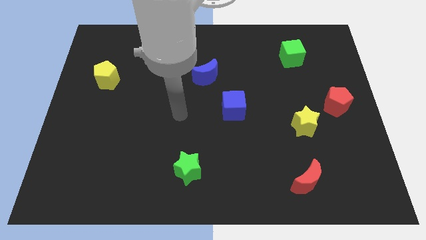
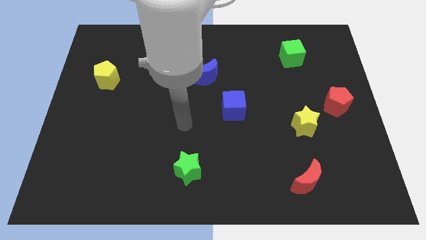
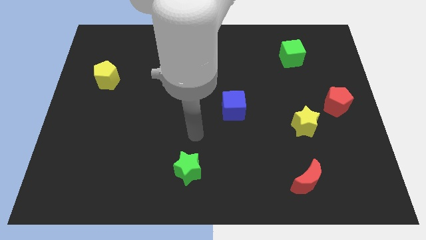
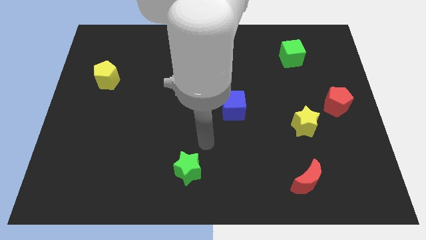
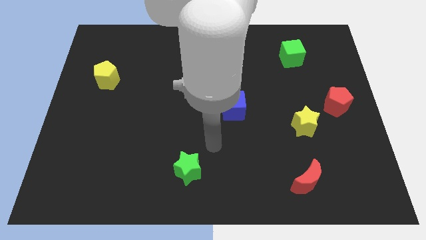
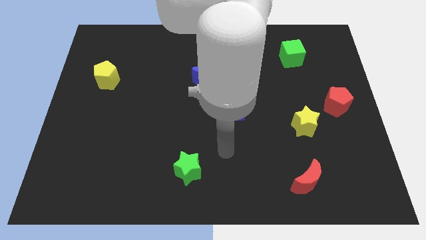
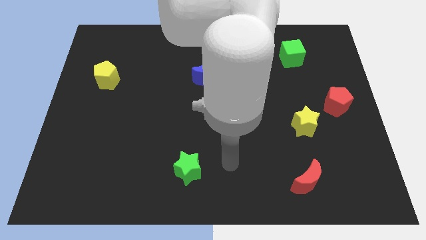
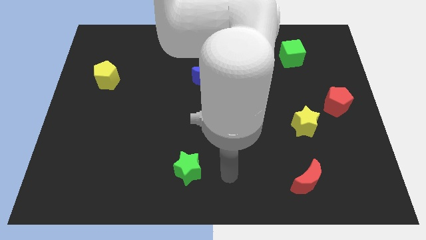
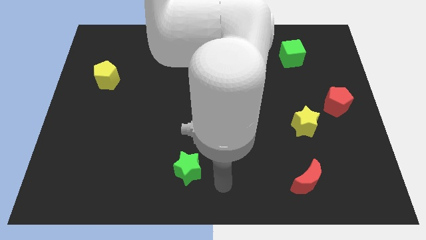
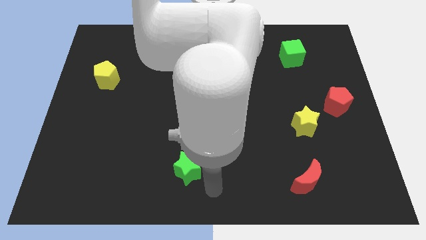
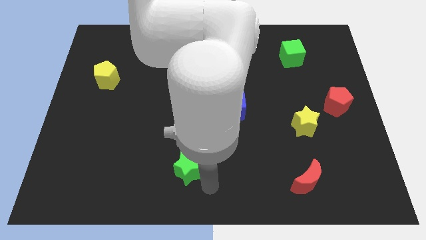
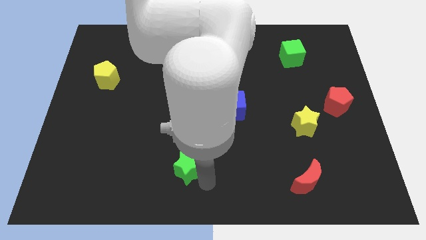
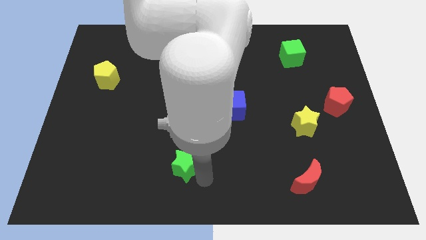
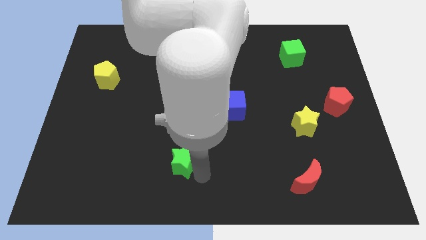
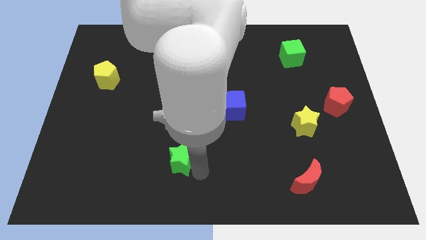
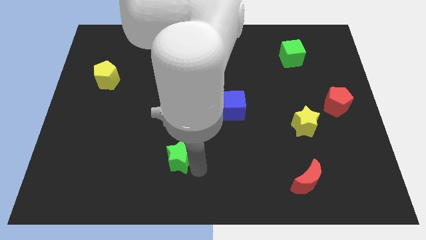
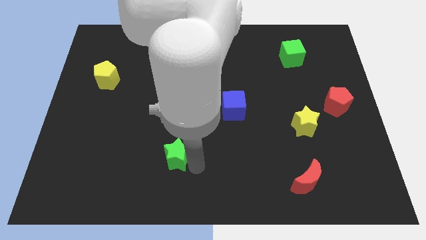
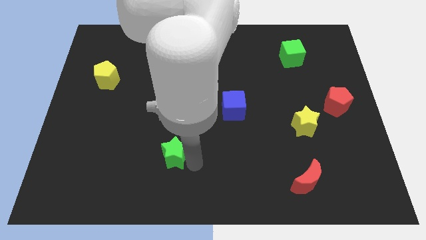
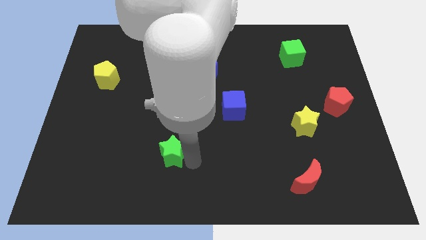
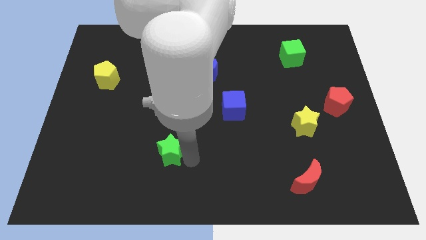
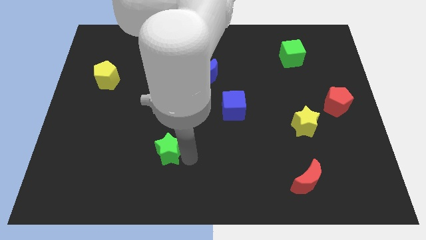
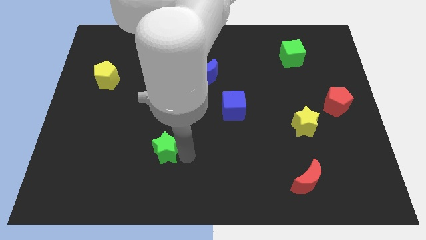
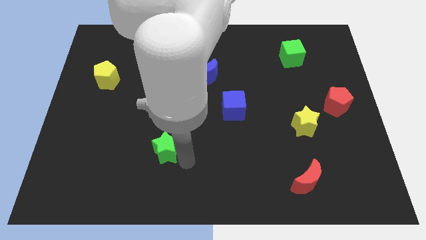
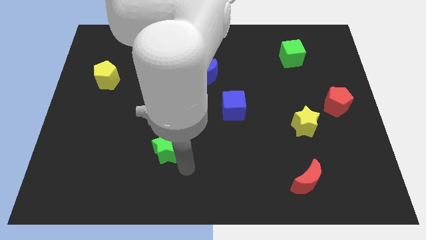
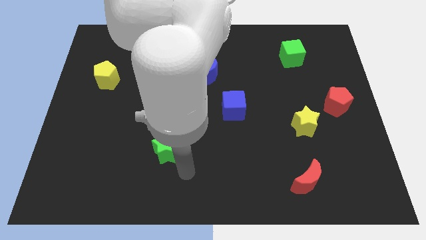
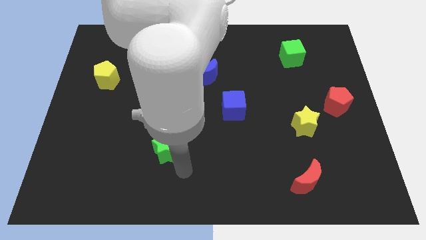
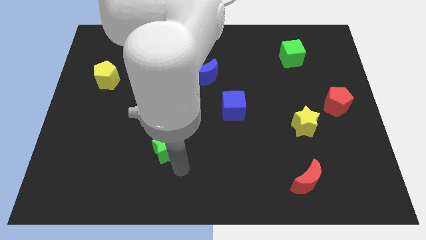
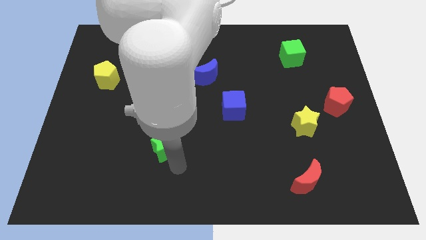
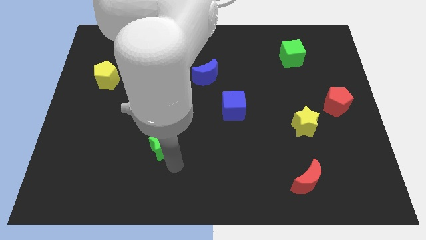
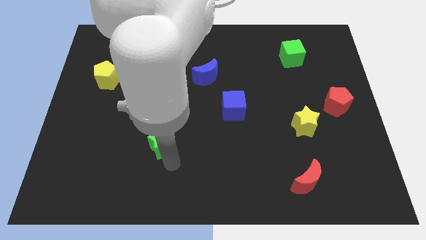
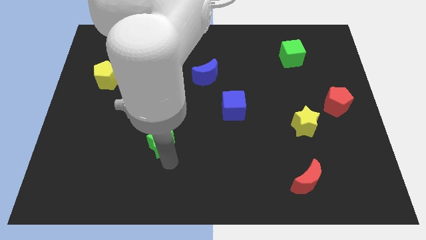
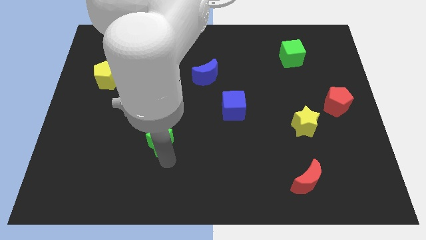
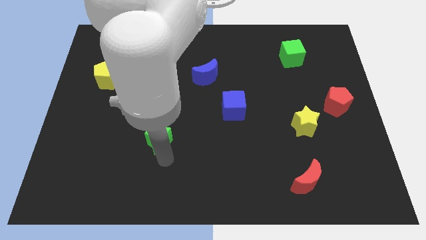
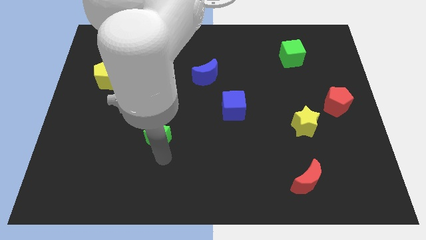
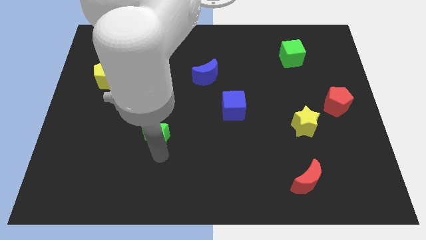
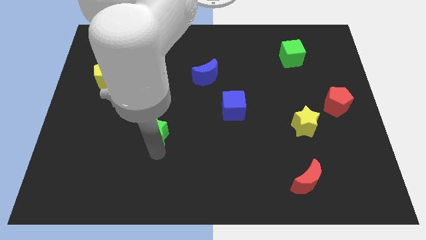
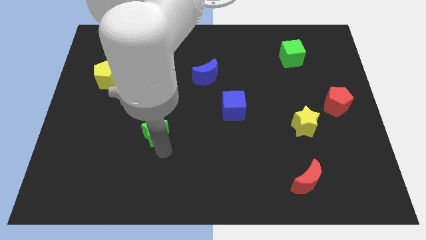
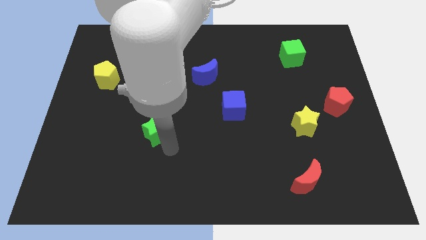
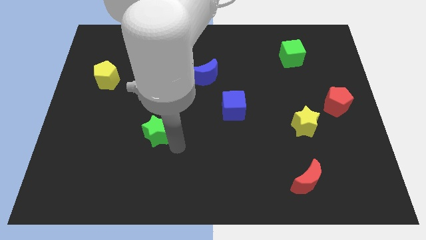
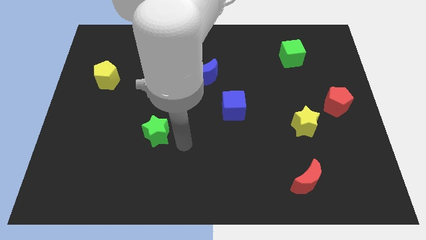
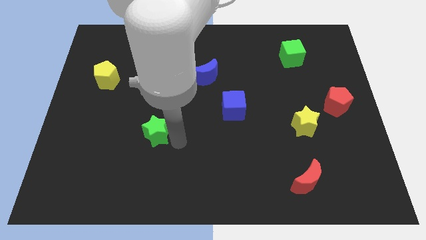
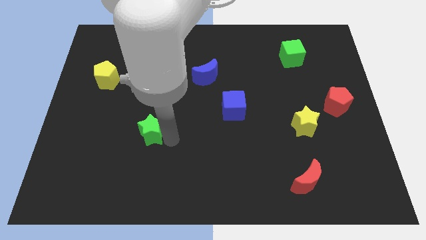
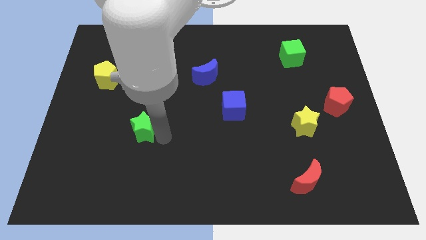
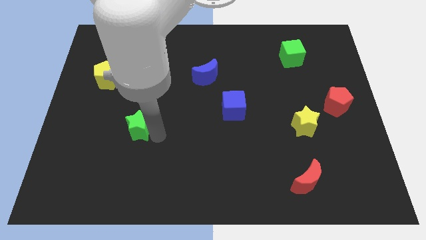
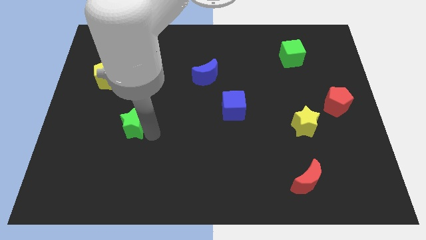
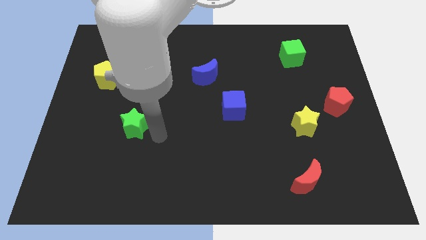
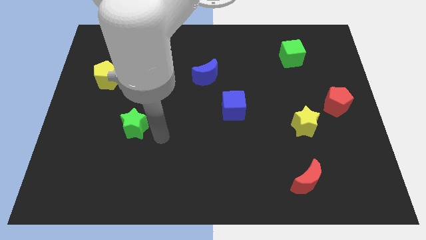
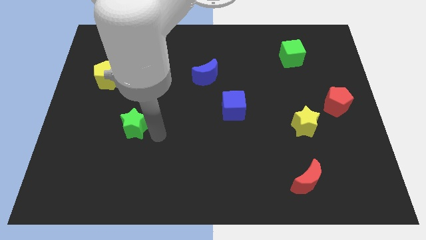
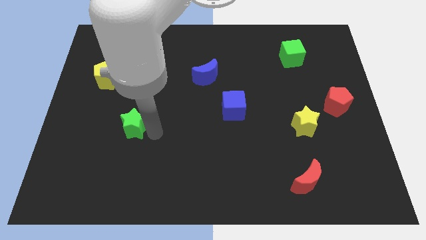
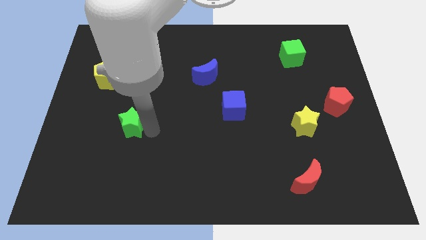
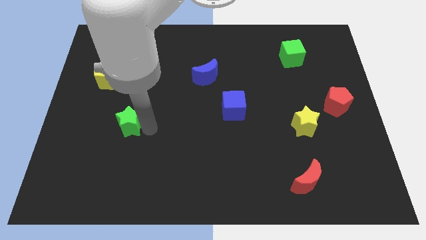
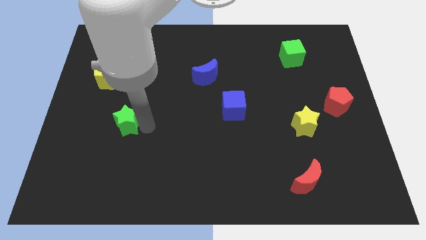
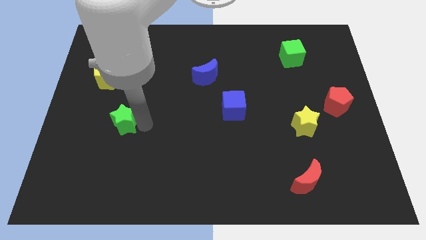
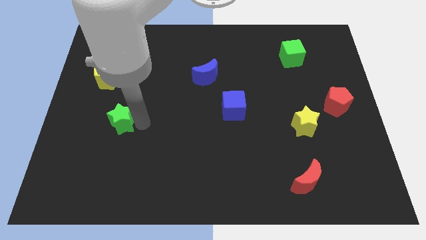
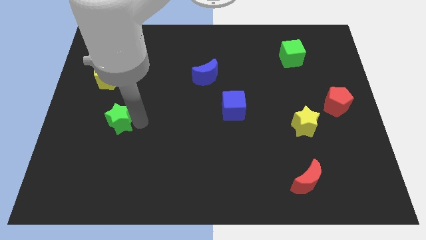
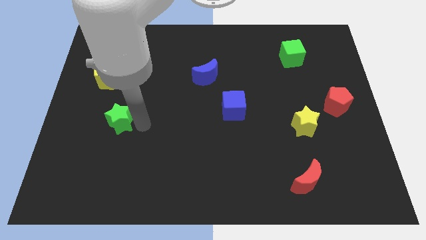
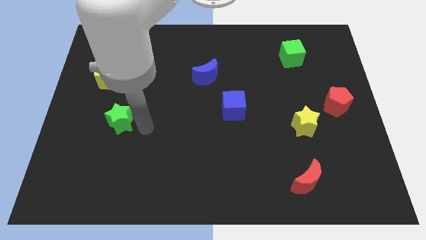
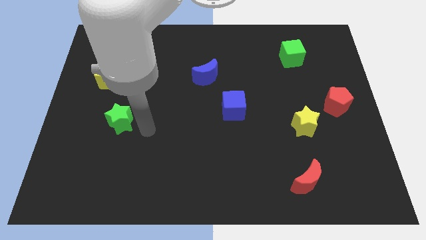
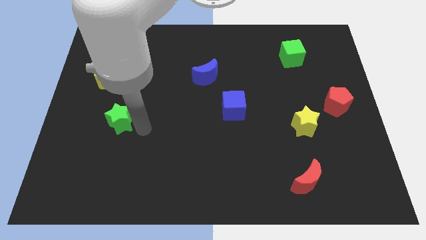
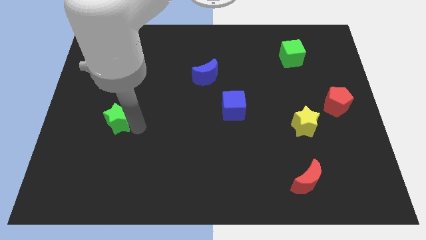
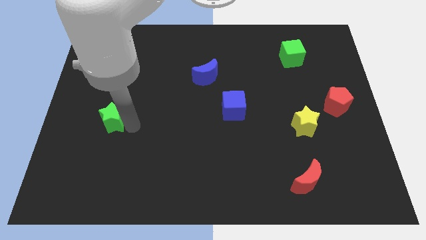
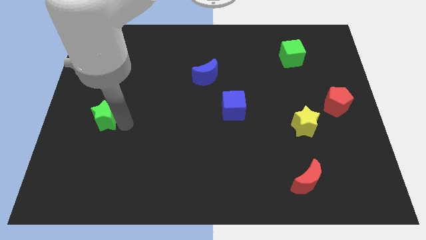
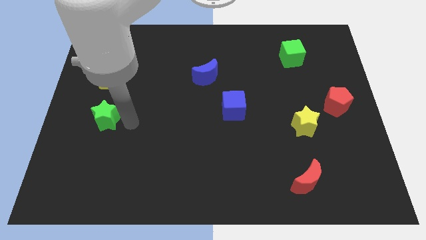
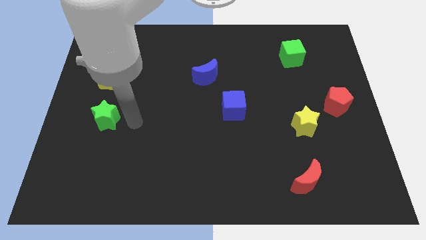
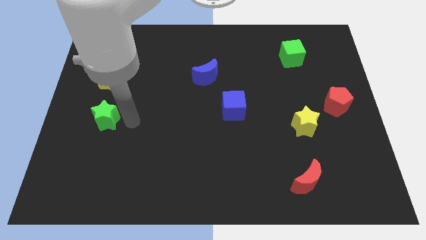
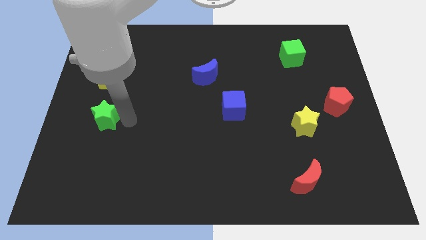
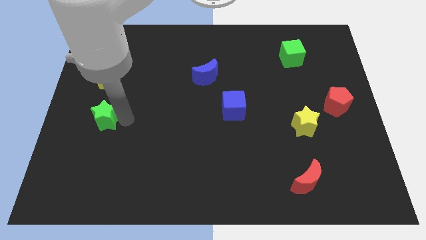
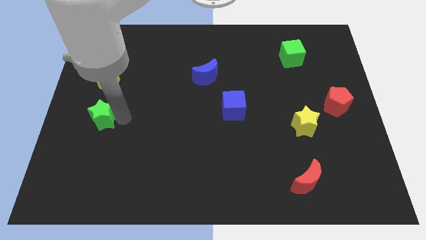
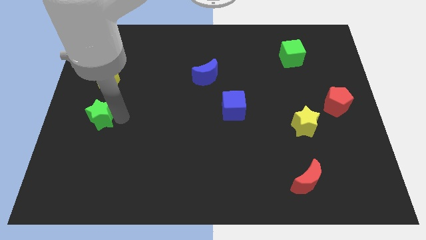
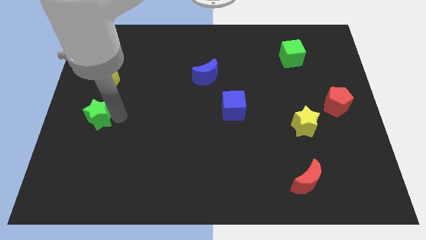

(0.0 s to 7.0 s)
push the green star to the left side

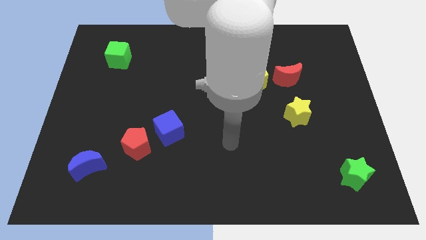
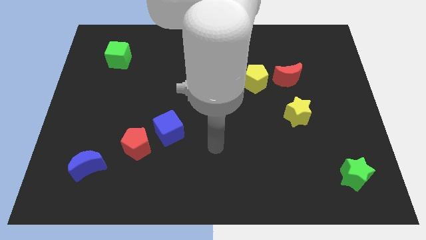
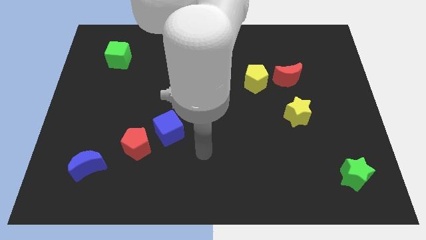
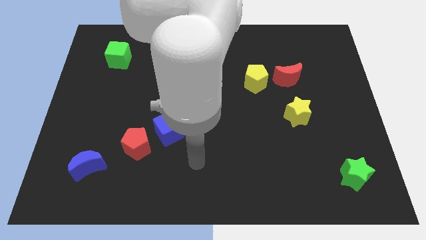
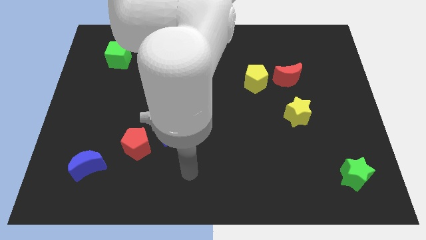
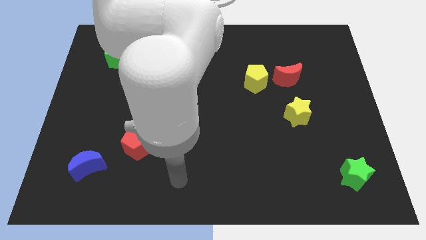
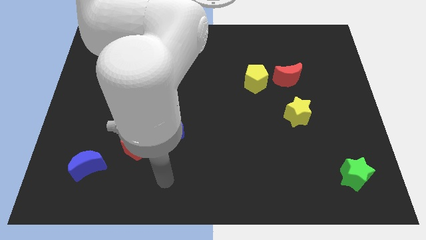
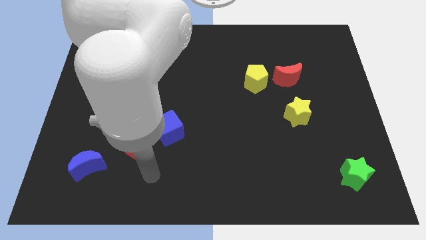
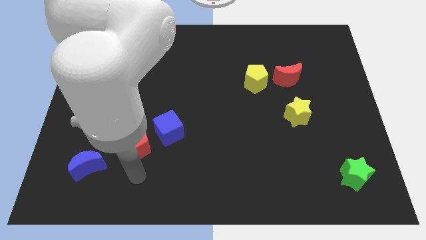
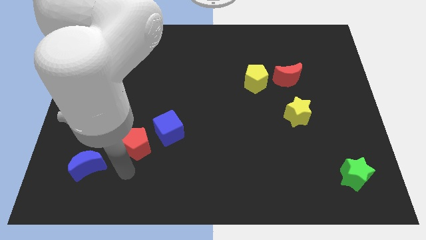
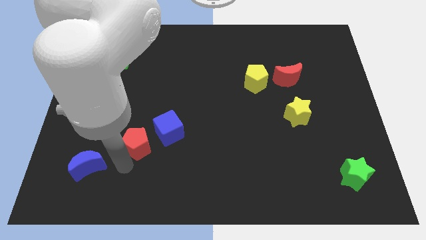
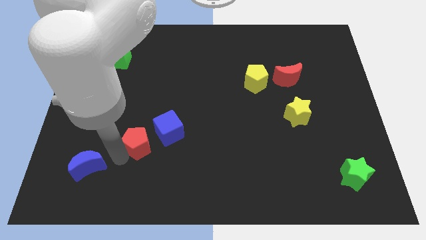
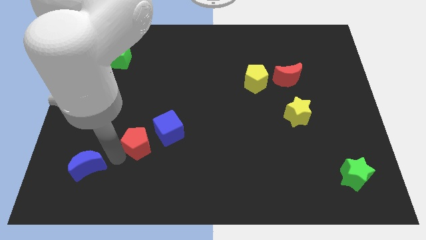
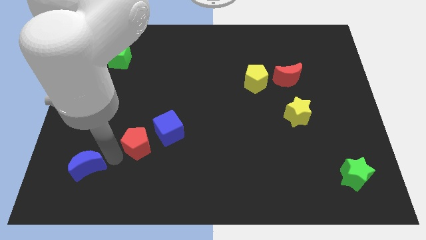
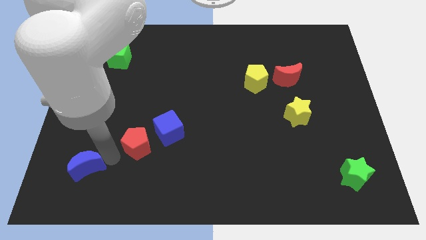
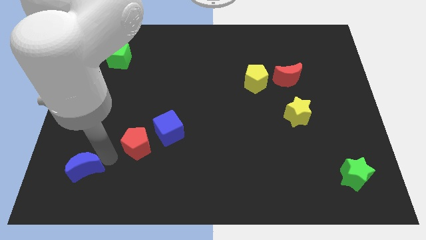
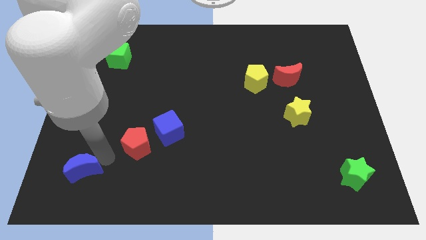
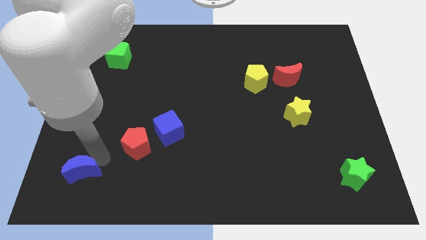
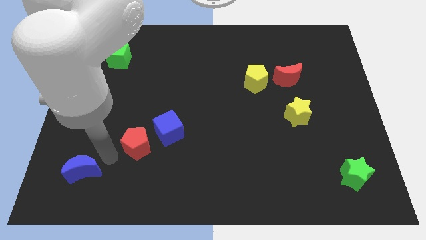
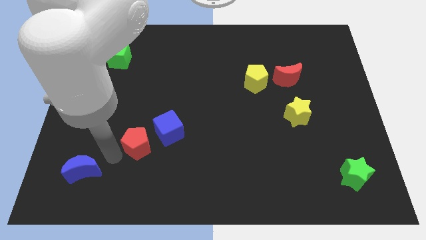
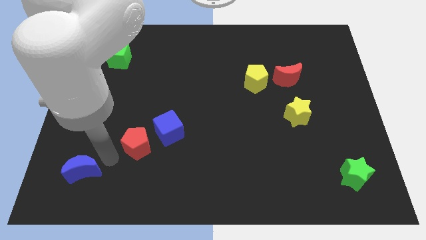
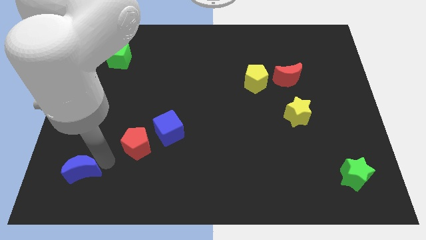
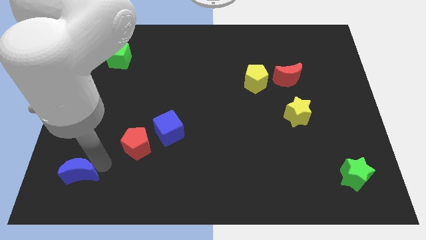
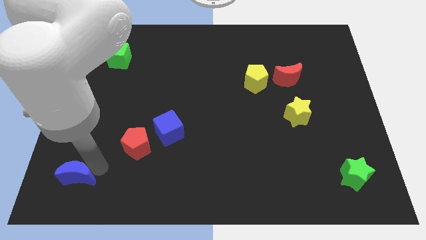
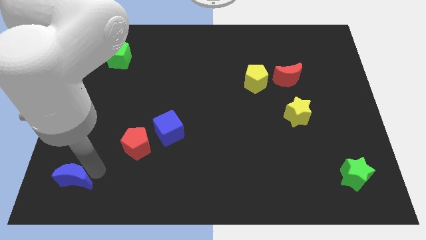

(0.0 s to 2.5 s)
push the blue moon to the bottom left corner
